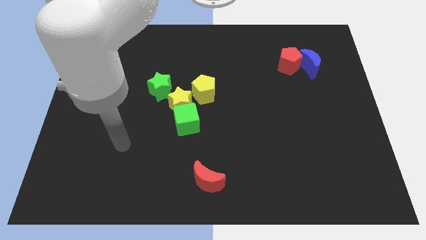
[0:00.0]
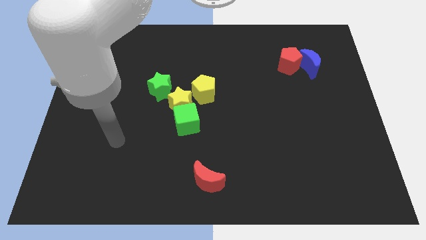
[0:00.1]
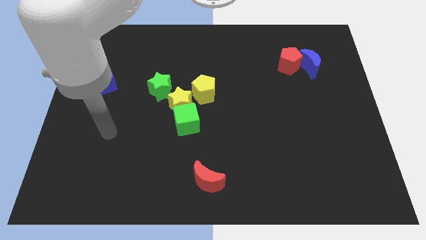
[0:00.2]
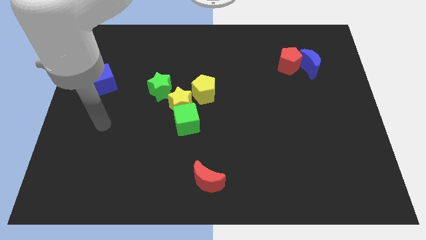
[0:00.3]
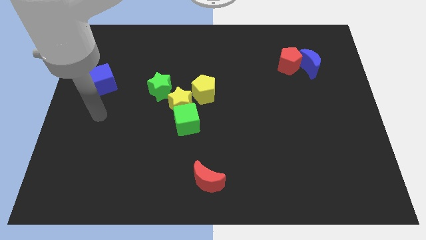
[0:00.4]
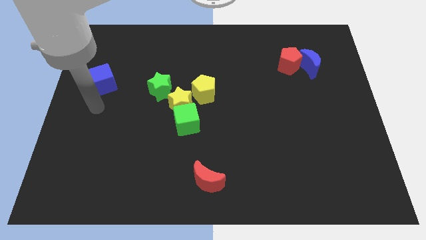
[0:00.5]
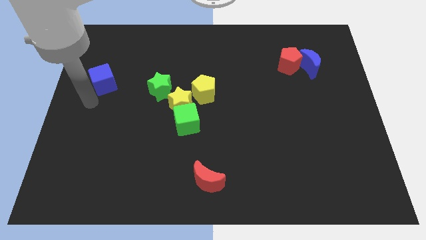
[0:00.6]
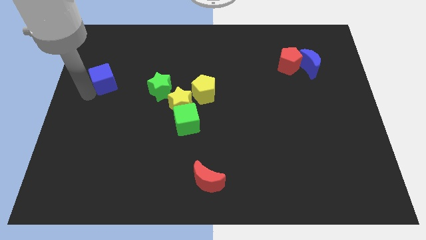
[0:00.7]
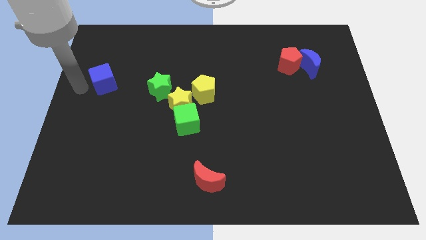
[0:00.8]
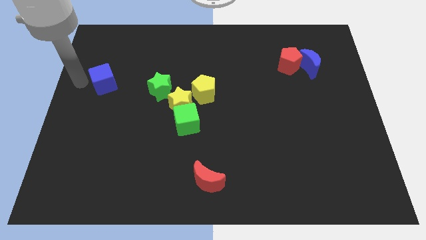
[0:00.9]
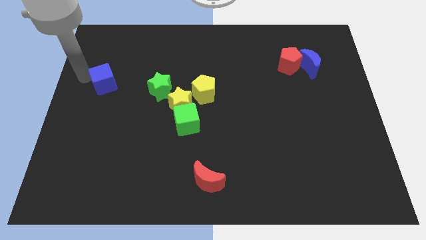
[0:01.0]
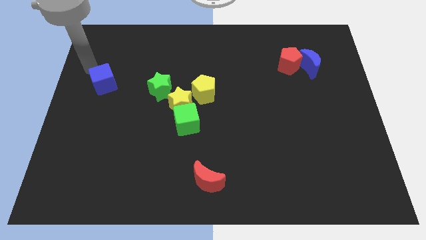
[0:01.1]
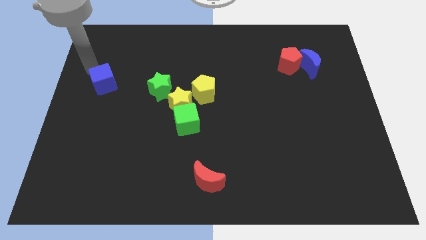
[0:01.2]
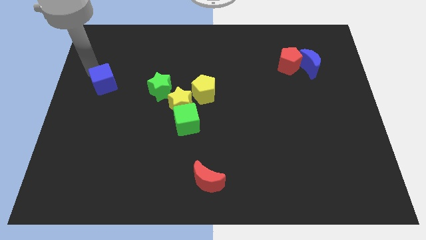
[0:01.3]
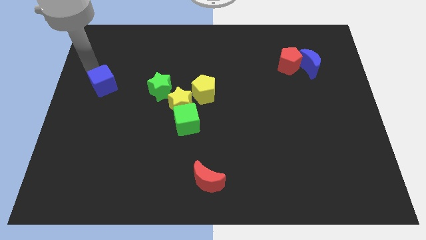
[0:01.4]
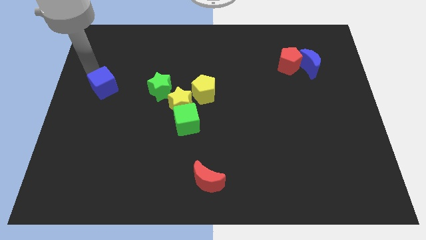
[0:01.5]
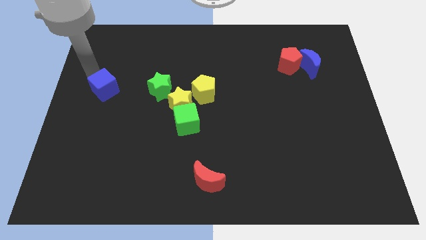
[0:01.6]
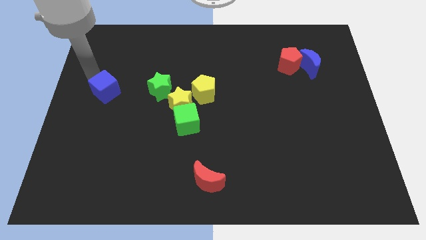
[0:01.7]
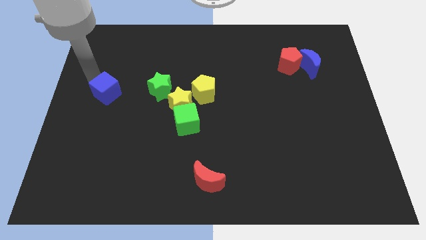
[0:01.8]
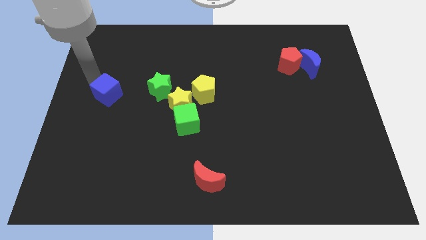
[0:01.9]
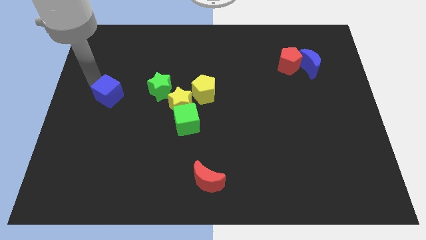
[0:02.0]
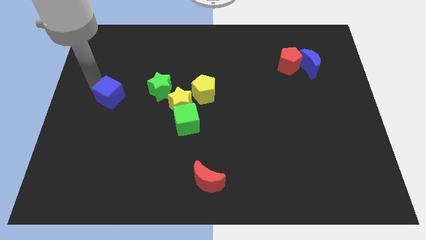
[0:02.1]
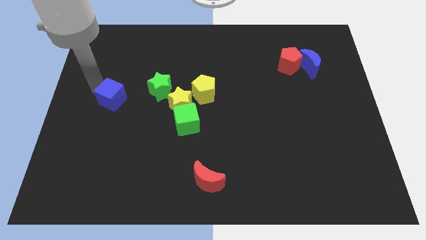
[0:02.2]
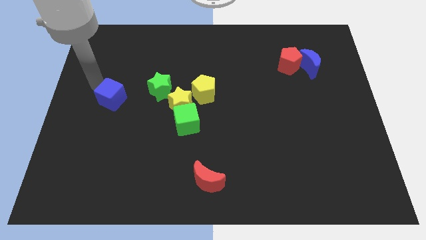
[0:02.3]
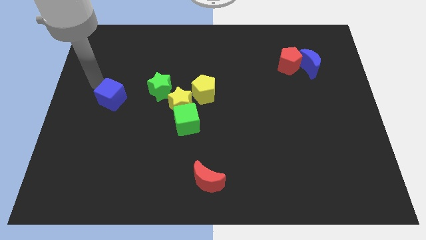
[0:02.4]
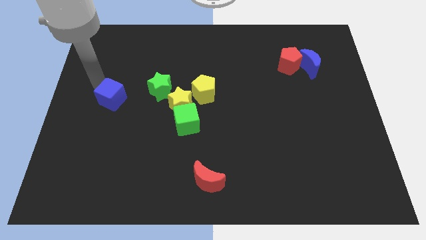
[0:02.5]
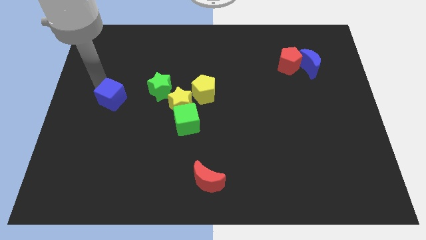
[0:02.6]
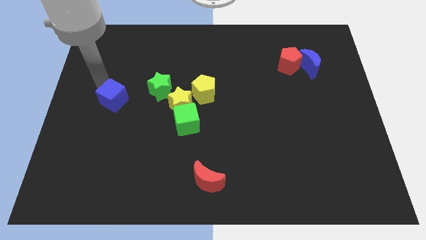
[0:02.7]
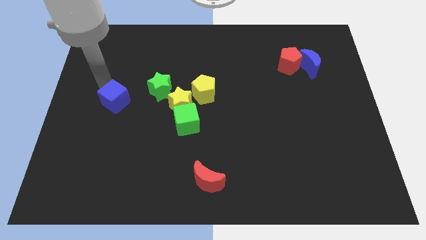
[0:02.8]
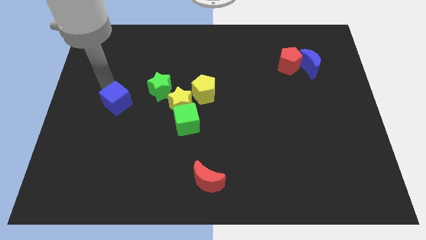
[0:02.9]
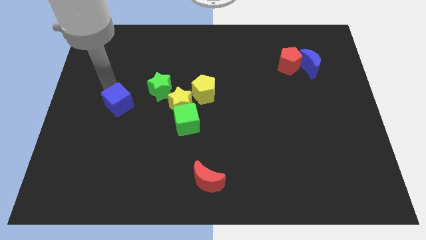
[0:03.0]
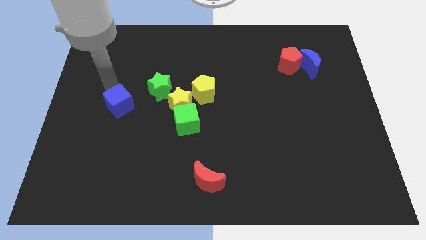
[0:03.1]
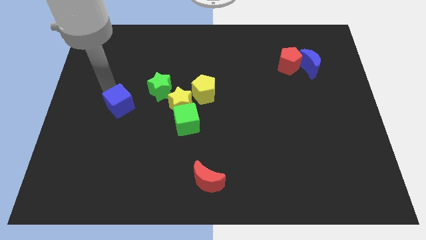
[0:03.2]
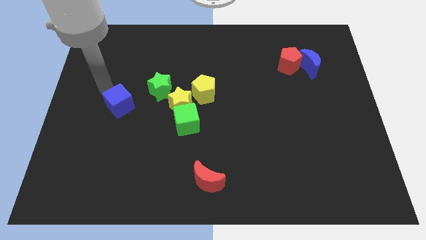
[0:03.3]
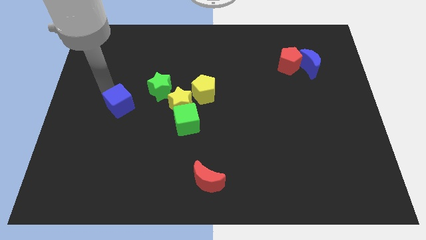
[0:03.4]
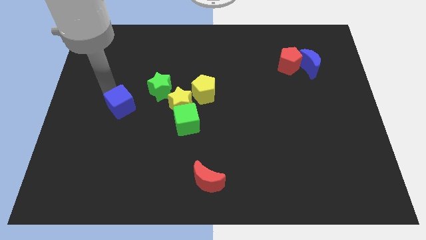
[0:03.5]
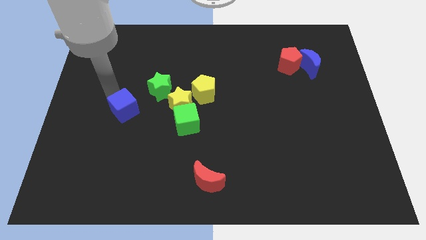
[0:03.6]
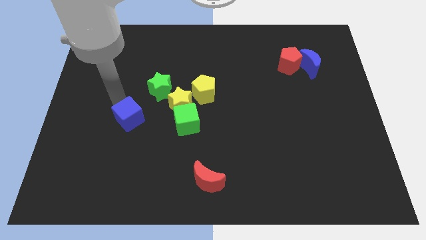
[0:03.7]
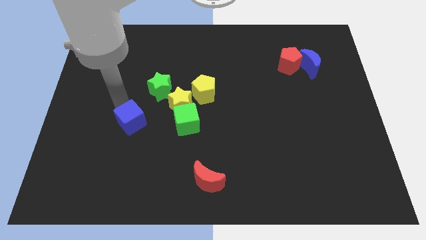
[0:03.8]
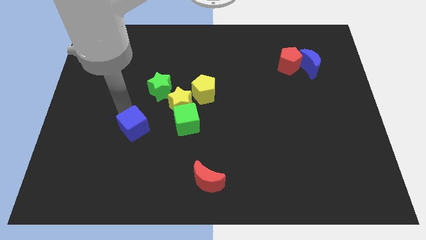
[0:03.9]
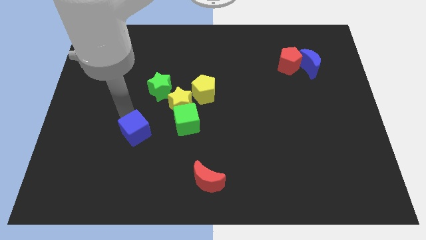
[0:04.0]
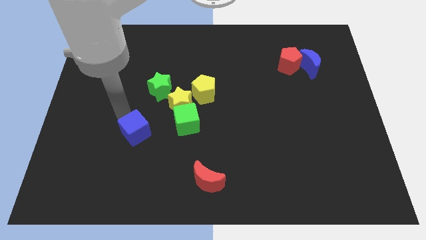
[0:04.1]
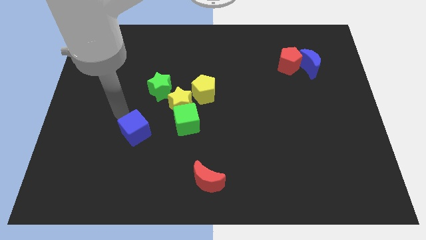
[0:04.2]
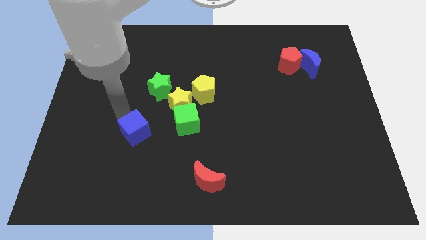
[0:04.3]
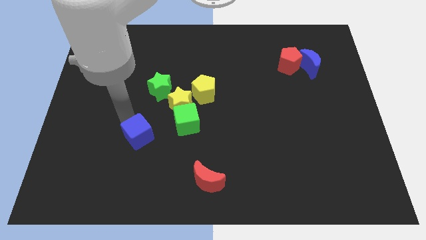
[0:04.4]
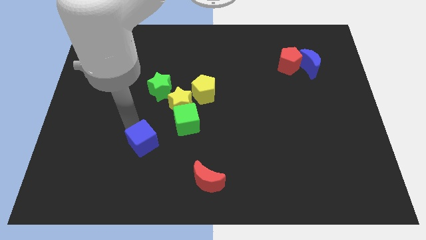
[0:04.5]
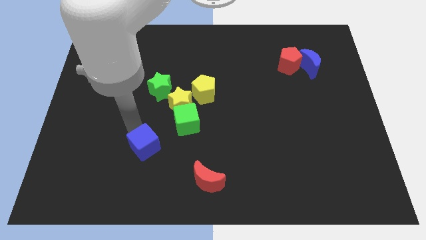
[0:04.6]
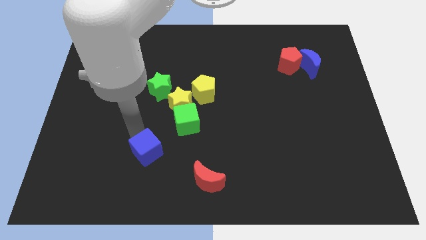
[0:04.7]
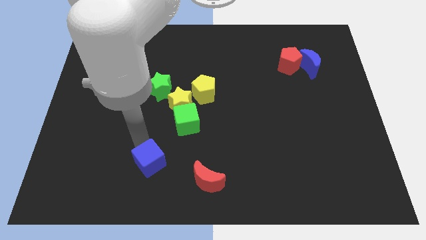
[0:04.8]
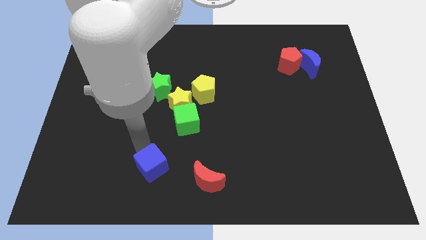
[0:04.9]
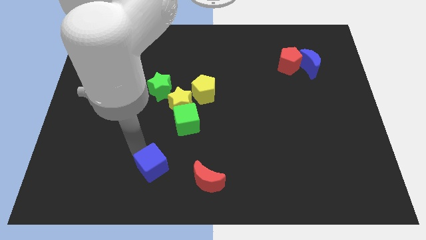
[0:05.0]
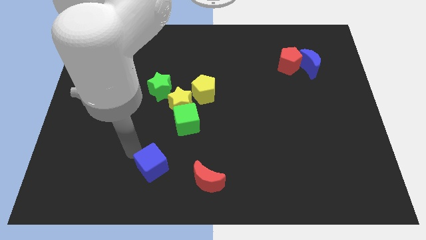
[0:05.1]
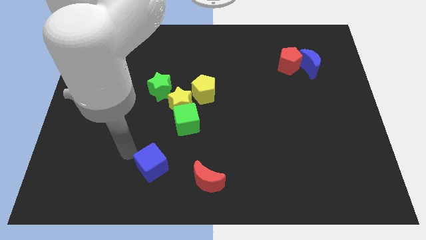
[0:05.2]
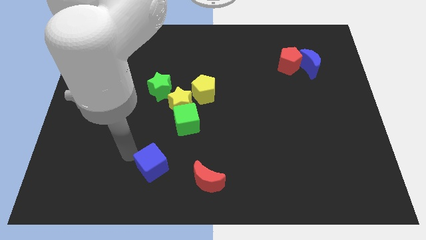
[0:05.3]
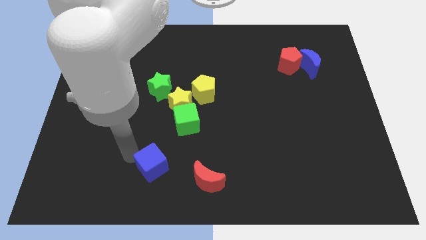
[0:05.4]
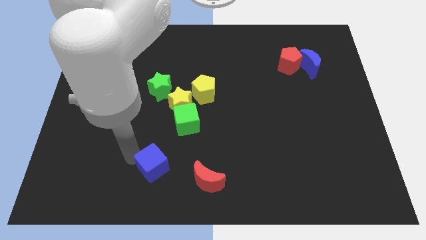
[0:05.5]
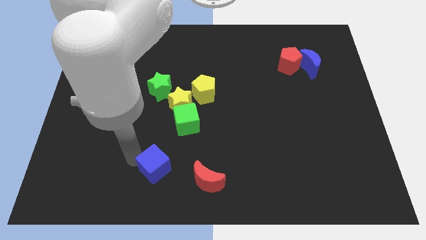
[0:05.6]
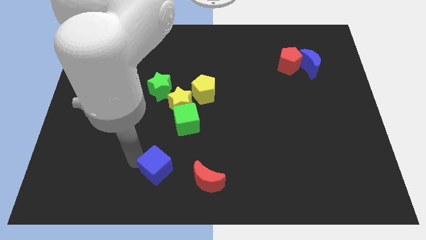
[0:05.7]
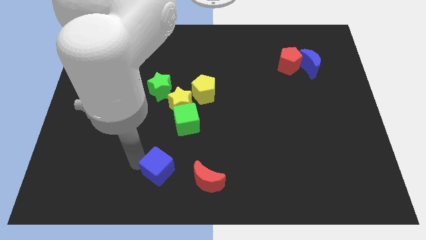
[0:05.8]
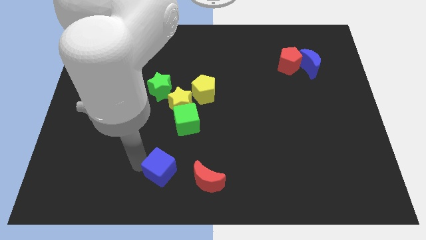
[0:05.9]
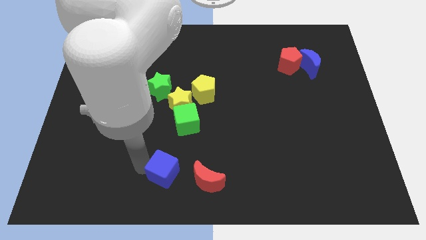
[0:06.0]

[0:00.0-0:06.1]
put the blue cube to the bottom side
